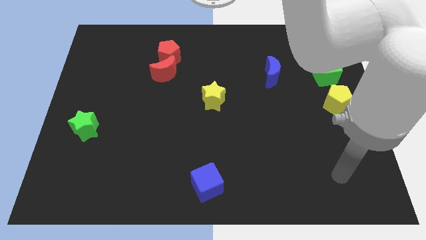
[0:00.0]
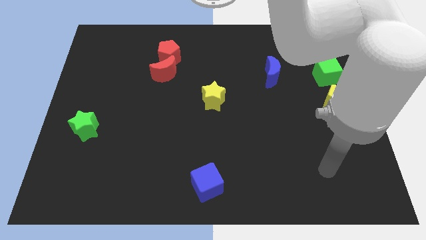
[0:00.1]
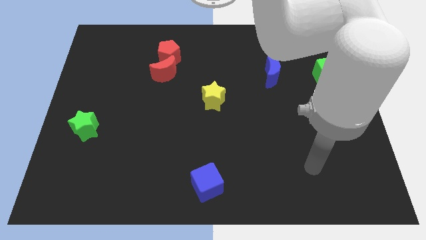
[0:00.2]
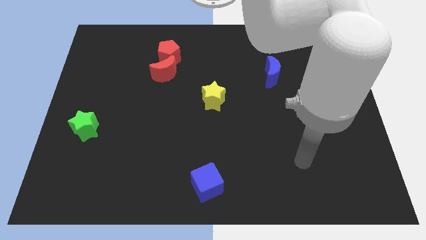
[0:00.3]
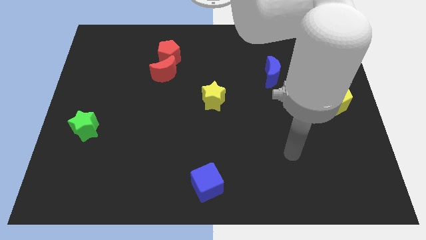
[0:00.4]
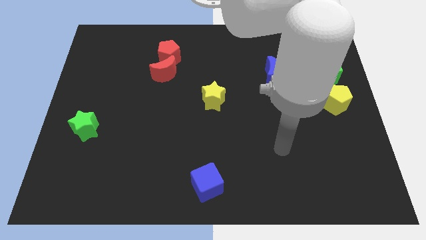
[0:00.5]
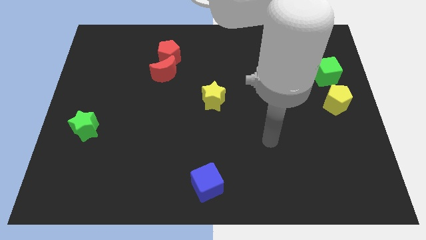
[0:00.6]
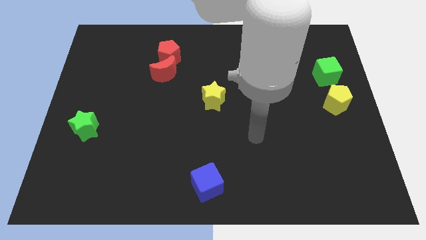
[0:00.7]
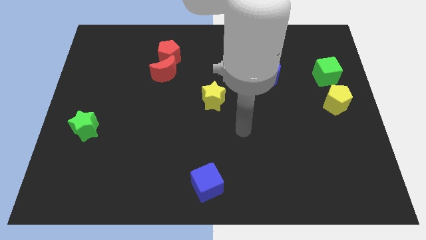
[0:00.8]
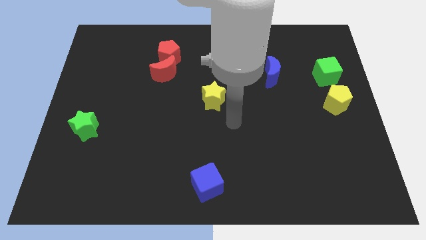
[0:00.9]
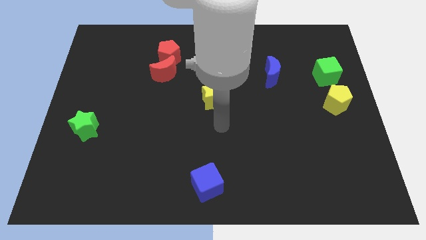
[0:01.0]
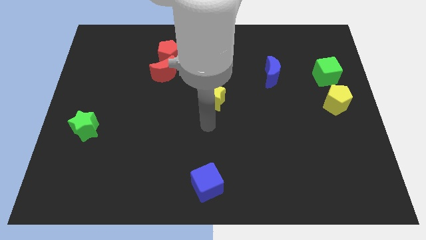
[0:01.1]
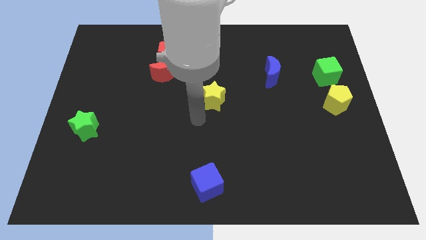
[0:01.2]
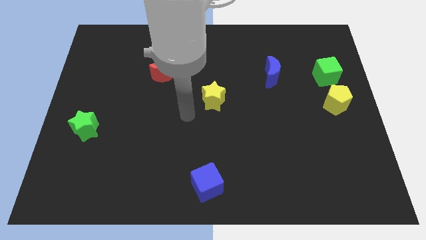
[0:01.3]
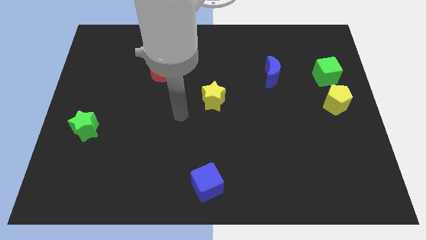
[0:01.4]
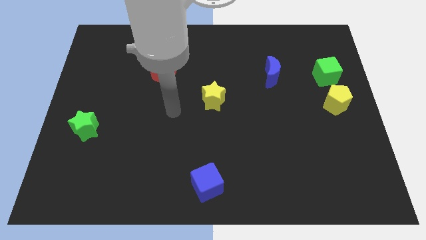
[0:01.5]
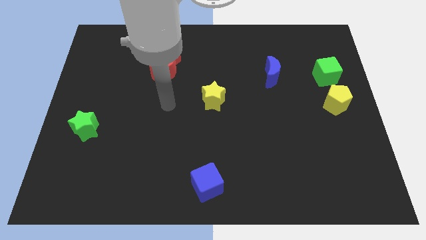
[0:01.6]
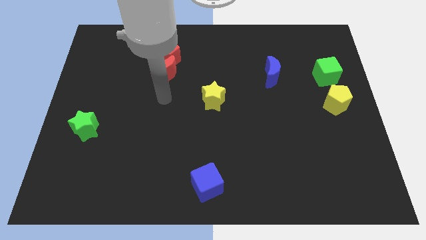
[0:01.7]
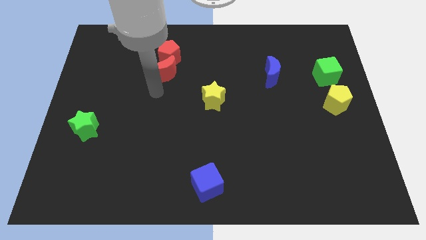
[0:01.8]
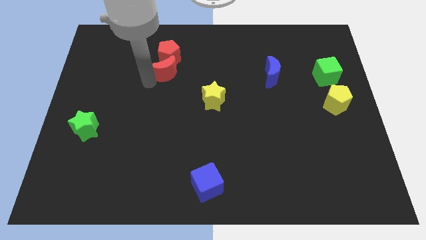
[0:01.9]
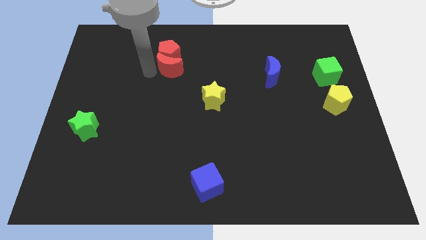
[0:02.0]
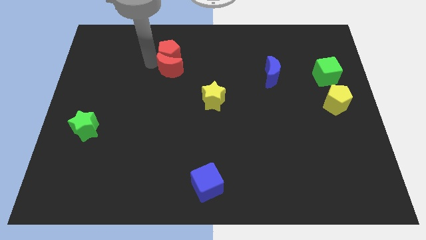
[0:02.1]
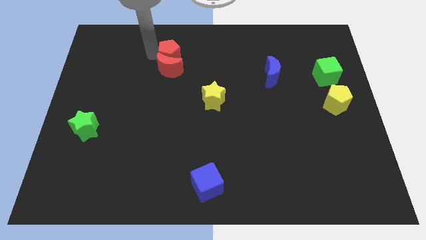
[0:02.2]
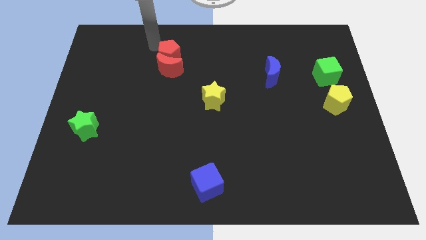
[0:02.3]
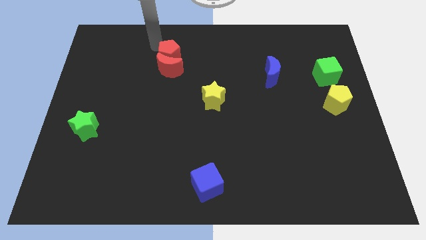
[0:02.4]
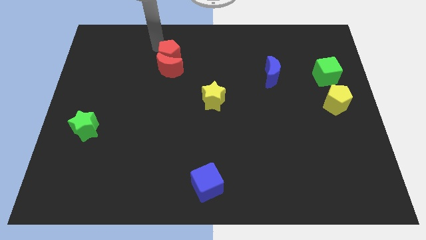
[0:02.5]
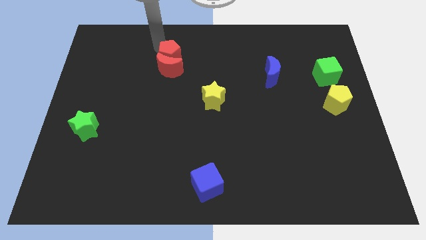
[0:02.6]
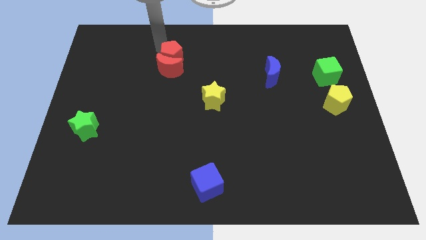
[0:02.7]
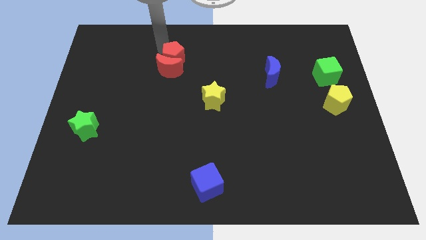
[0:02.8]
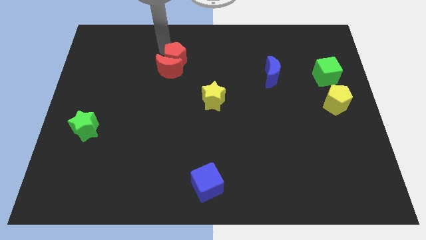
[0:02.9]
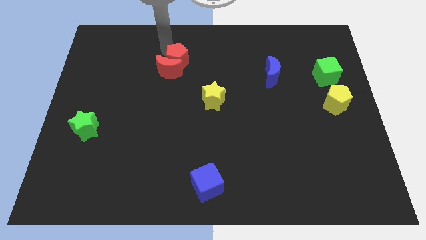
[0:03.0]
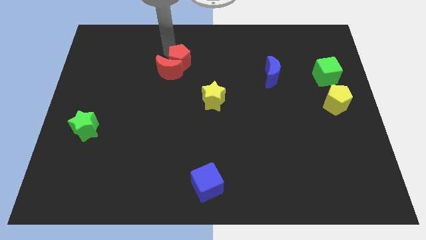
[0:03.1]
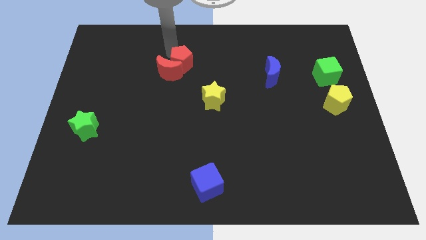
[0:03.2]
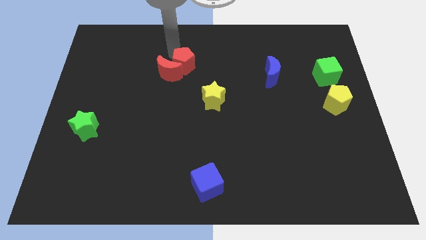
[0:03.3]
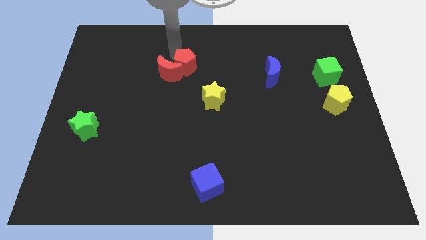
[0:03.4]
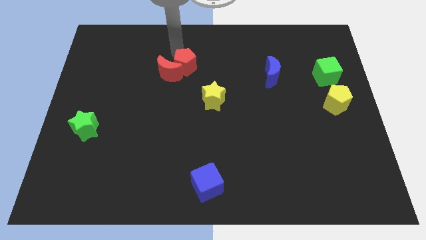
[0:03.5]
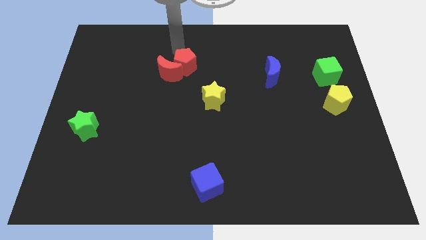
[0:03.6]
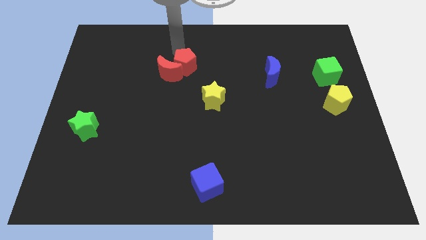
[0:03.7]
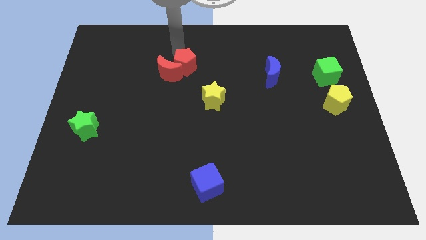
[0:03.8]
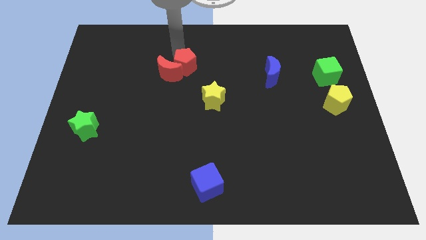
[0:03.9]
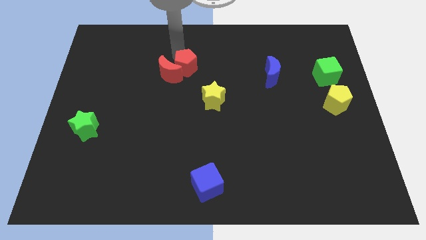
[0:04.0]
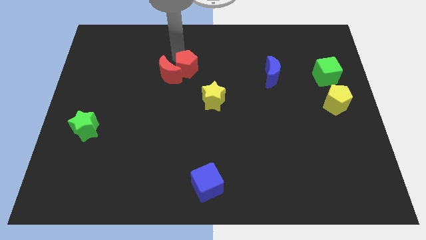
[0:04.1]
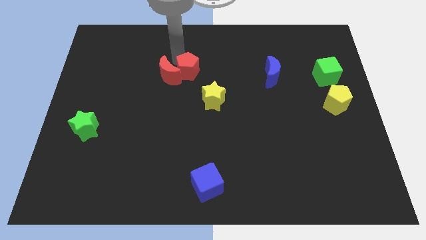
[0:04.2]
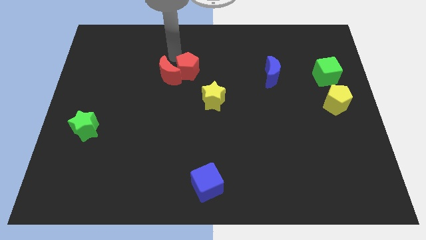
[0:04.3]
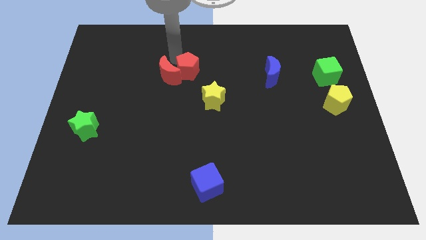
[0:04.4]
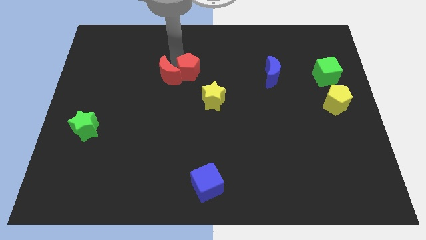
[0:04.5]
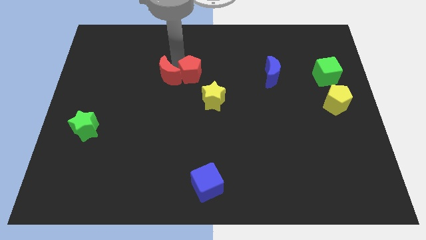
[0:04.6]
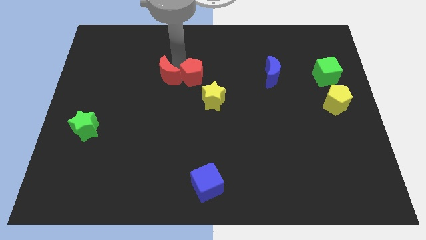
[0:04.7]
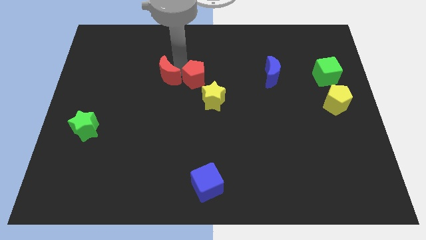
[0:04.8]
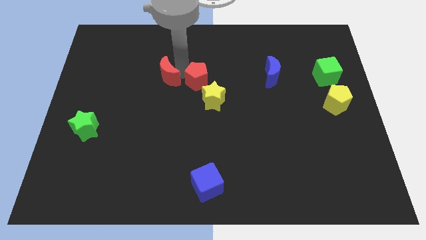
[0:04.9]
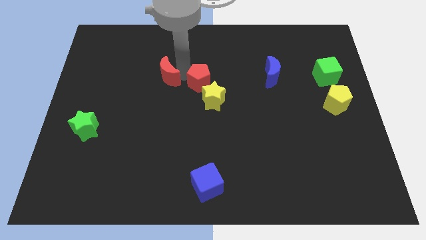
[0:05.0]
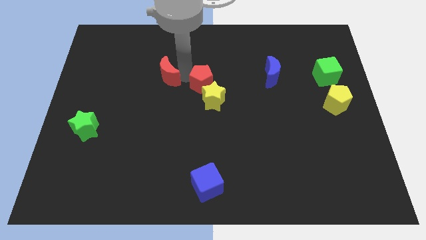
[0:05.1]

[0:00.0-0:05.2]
put the red pentagon close to the yellow star

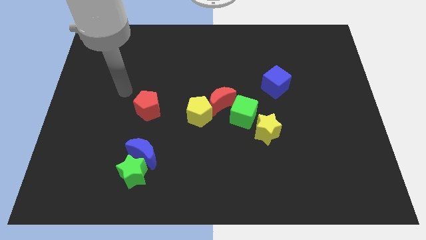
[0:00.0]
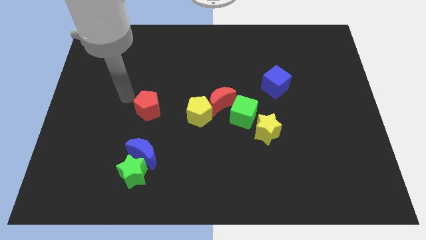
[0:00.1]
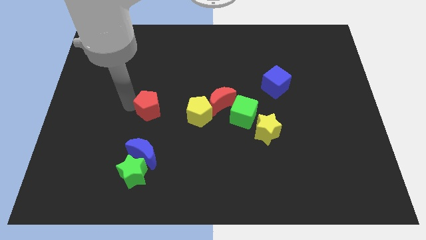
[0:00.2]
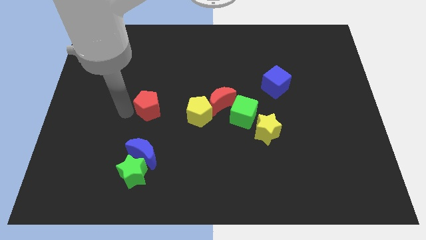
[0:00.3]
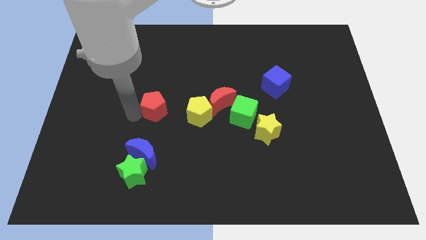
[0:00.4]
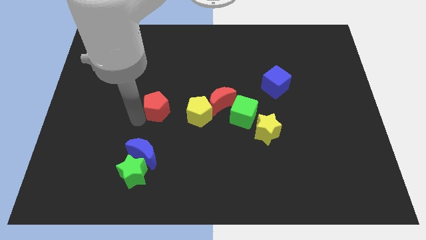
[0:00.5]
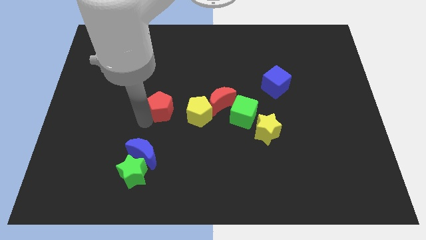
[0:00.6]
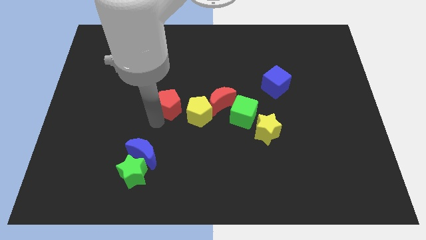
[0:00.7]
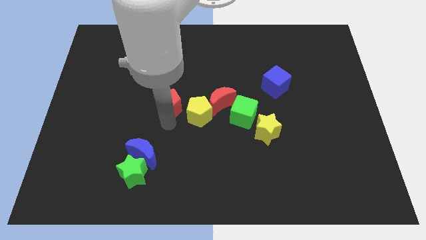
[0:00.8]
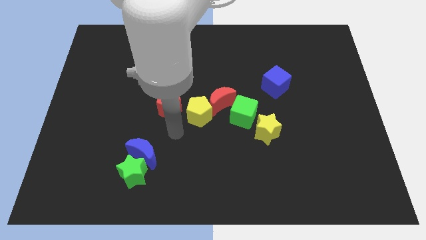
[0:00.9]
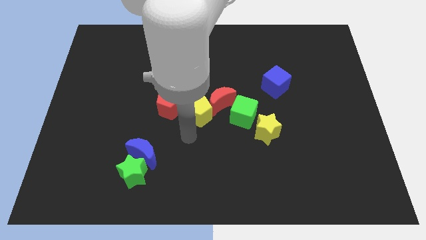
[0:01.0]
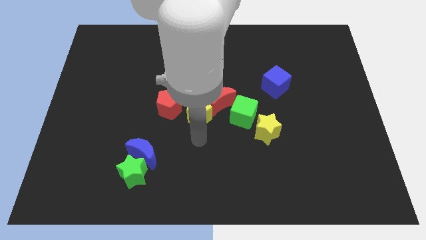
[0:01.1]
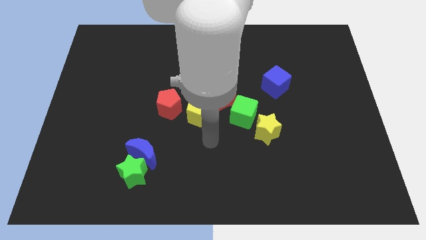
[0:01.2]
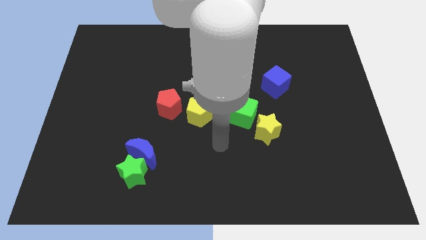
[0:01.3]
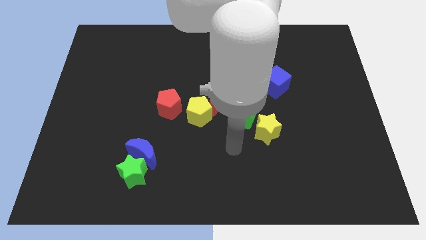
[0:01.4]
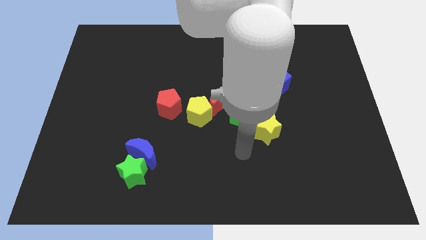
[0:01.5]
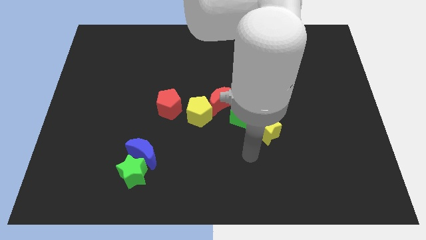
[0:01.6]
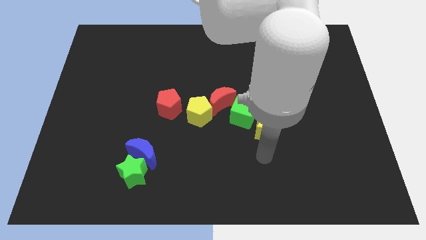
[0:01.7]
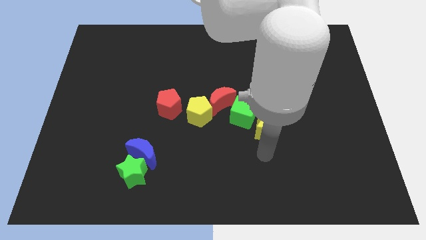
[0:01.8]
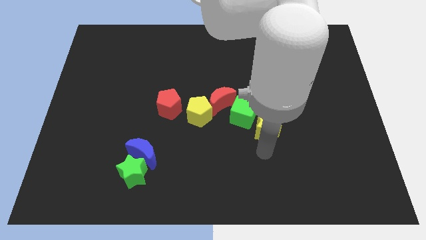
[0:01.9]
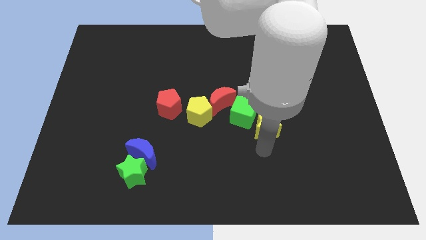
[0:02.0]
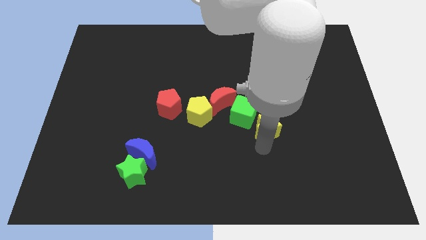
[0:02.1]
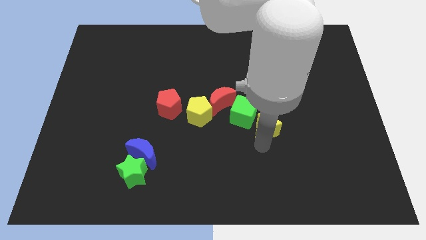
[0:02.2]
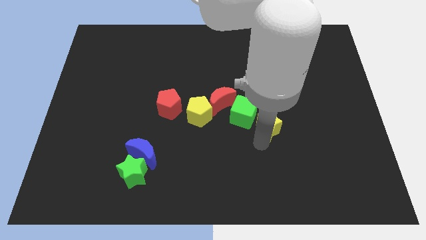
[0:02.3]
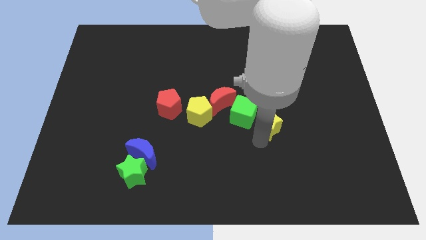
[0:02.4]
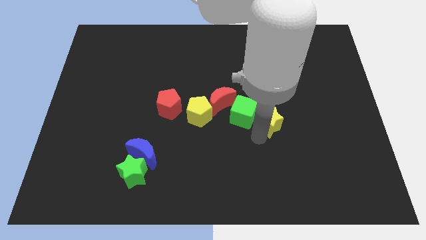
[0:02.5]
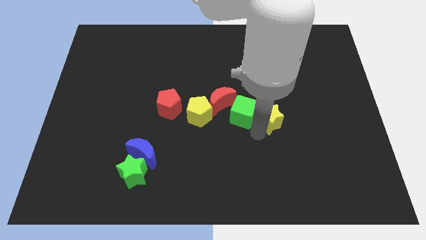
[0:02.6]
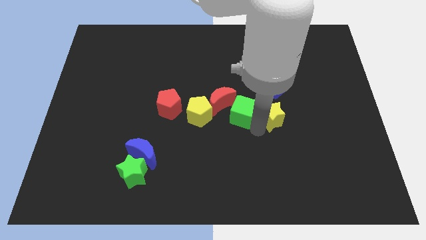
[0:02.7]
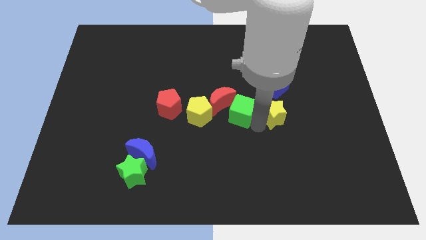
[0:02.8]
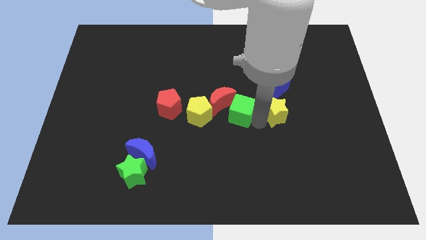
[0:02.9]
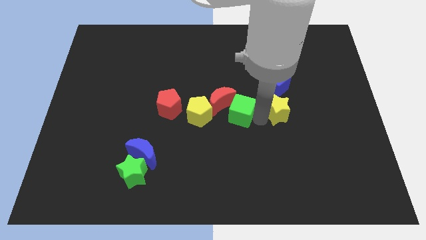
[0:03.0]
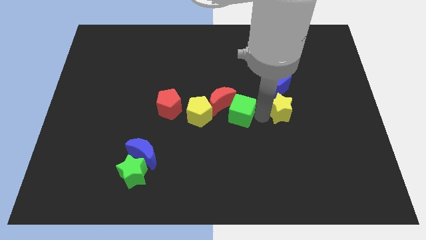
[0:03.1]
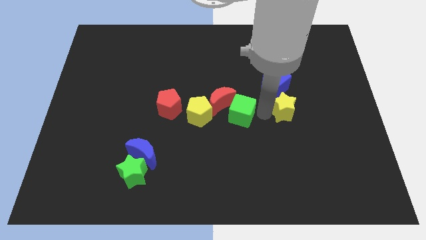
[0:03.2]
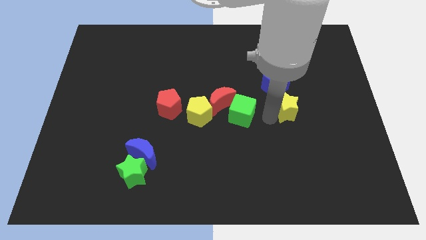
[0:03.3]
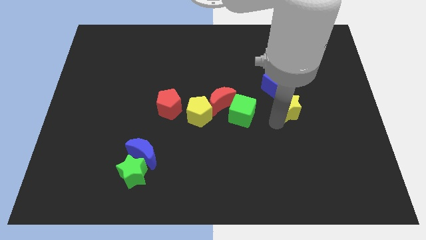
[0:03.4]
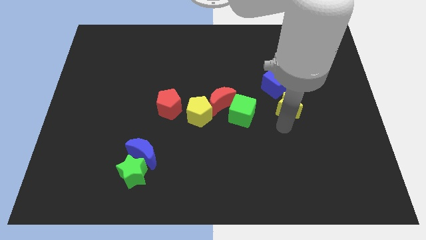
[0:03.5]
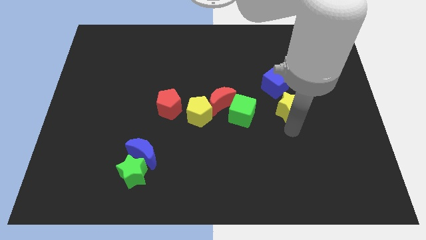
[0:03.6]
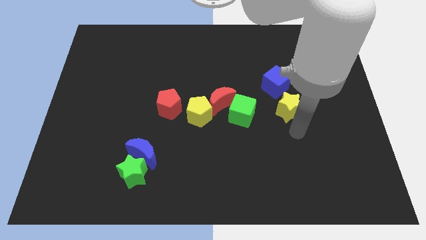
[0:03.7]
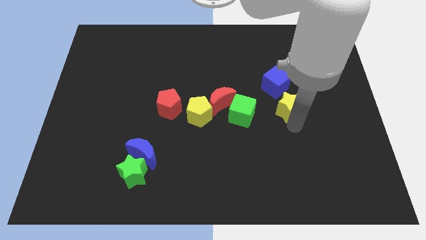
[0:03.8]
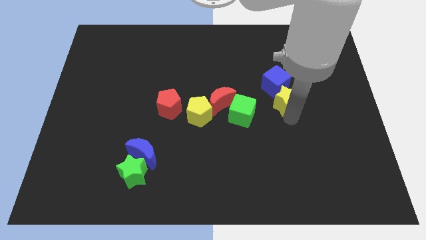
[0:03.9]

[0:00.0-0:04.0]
push the yellow star close to the blue cube
